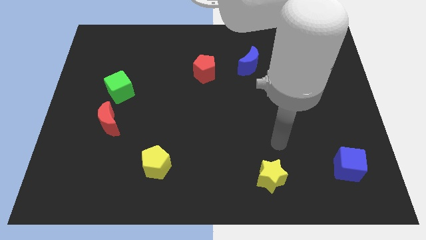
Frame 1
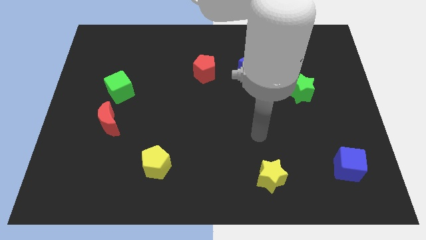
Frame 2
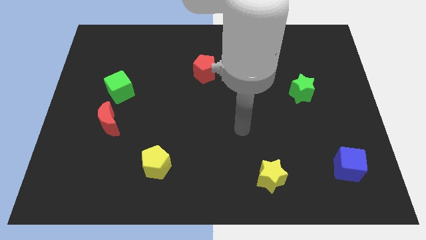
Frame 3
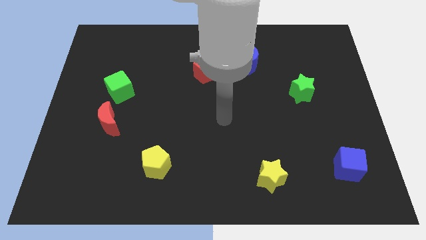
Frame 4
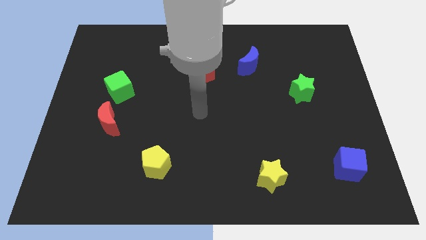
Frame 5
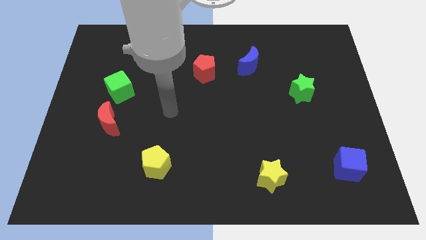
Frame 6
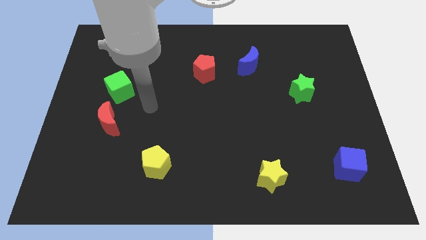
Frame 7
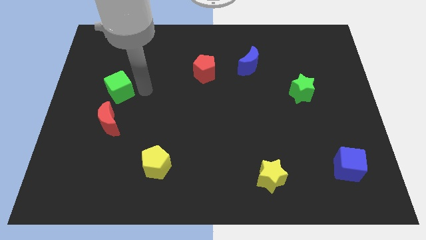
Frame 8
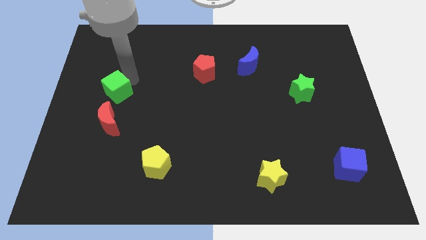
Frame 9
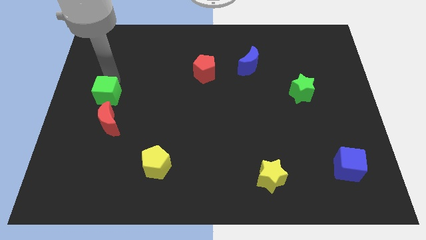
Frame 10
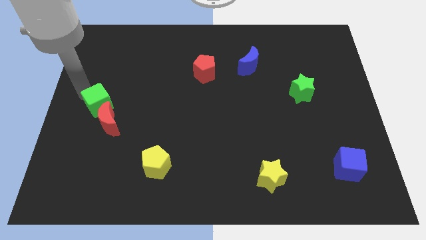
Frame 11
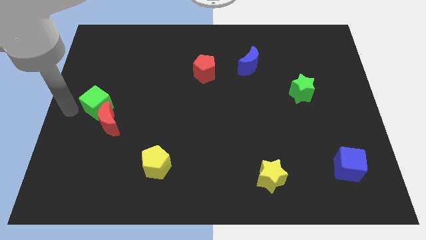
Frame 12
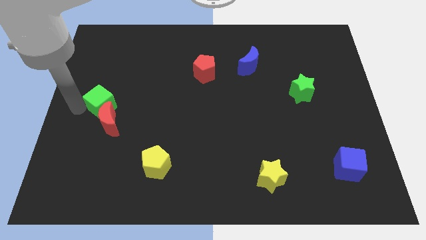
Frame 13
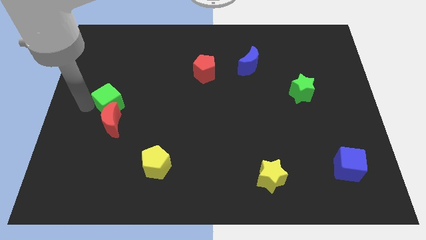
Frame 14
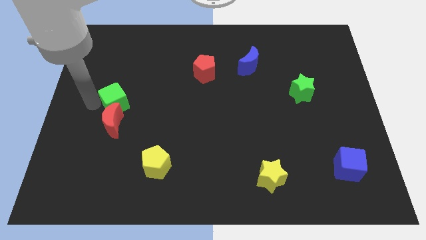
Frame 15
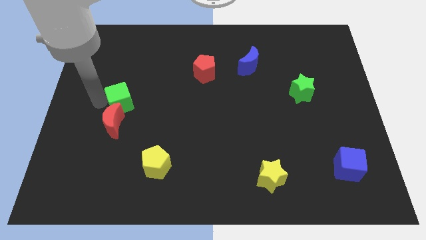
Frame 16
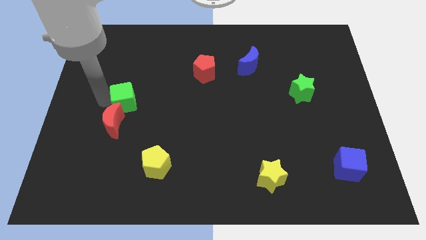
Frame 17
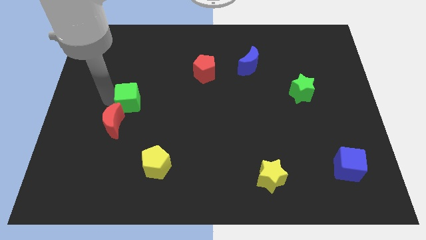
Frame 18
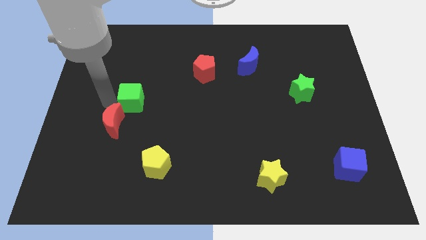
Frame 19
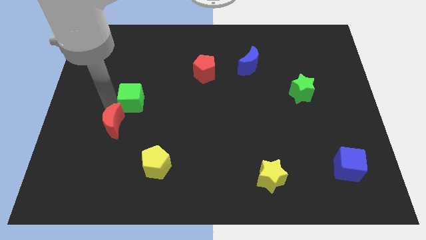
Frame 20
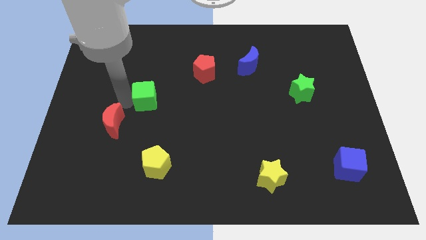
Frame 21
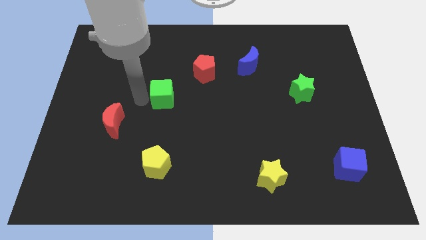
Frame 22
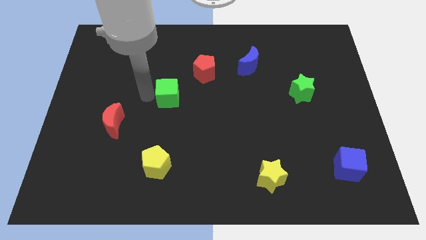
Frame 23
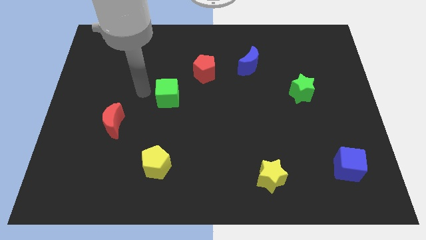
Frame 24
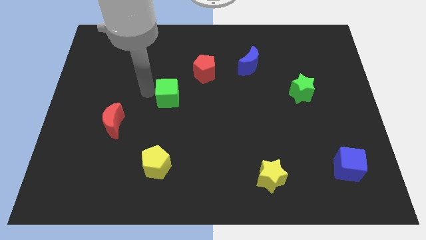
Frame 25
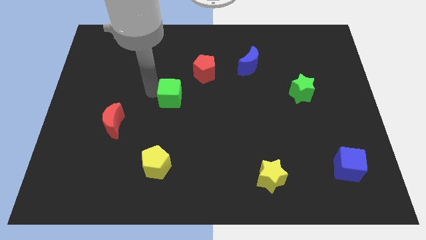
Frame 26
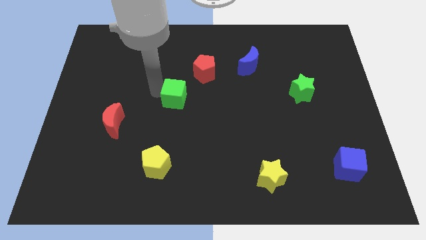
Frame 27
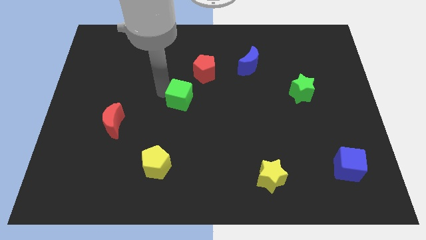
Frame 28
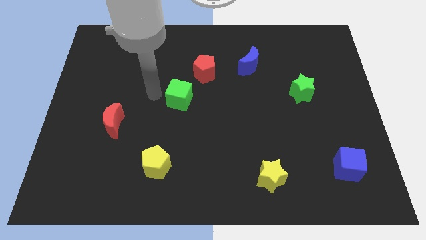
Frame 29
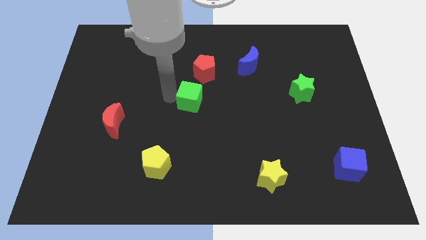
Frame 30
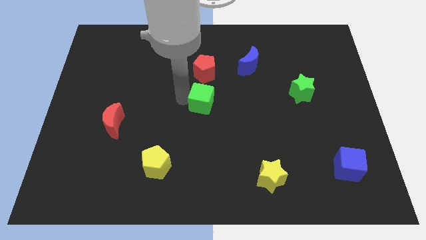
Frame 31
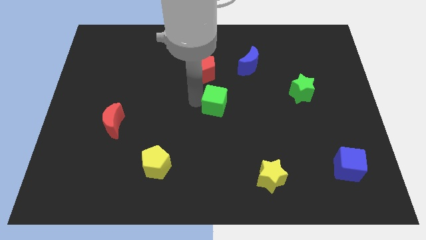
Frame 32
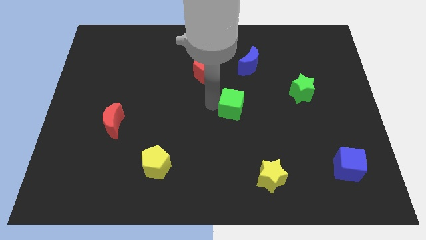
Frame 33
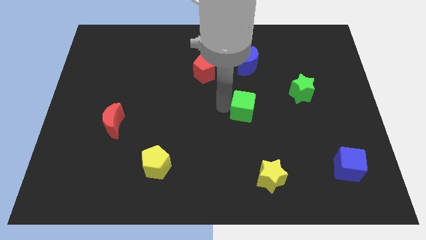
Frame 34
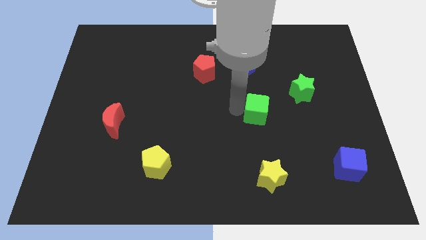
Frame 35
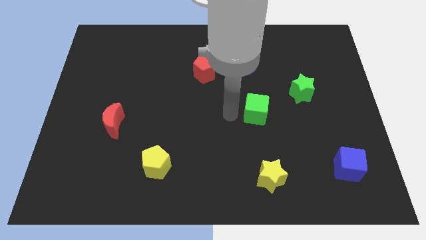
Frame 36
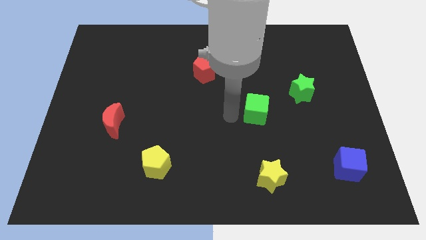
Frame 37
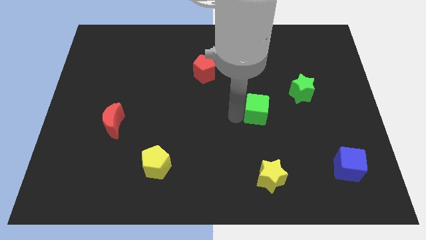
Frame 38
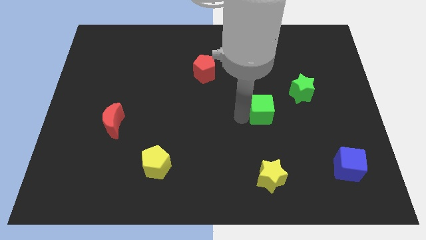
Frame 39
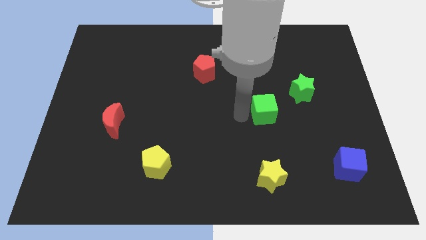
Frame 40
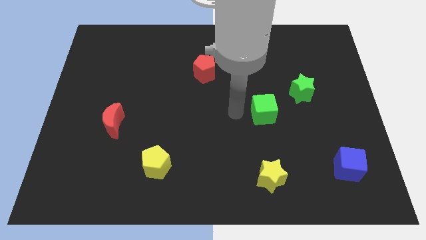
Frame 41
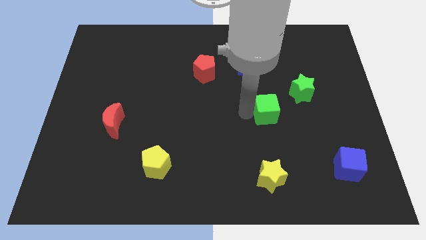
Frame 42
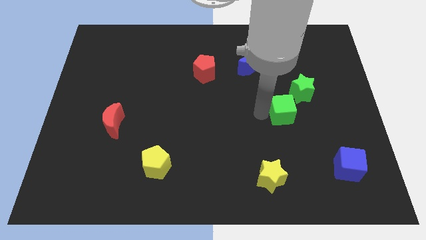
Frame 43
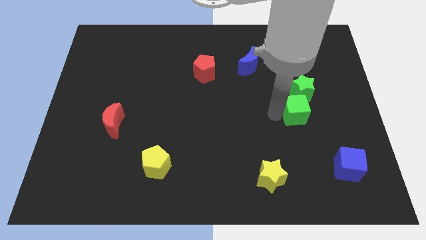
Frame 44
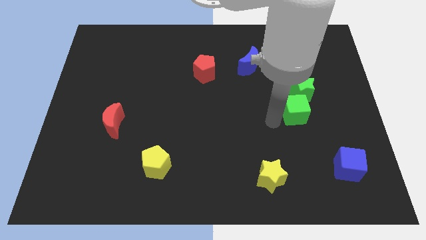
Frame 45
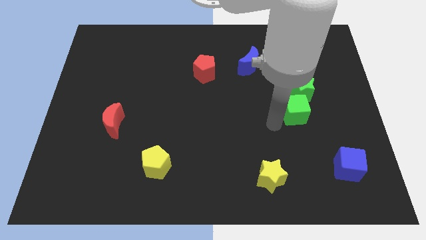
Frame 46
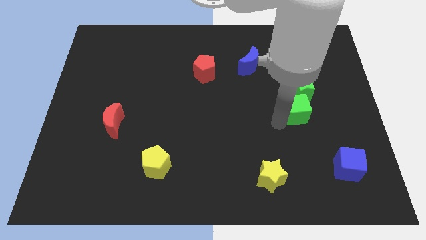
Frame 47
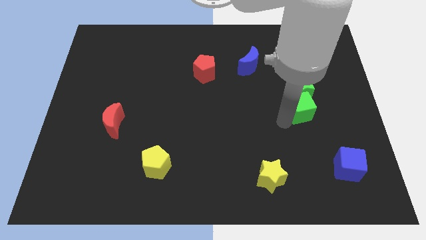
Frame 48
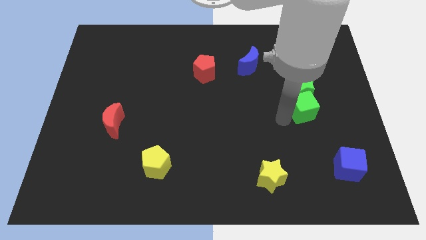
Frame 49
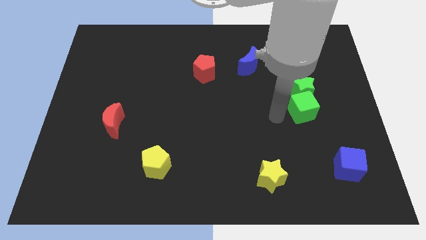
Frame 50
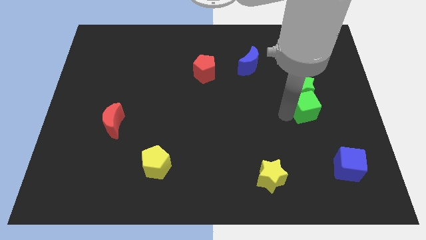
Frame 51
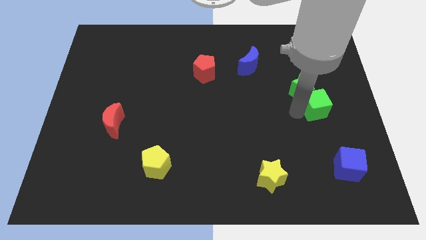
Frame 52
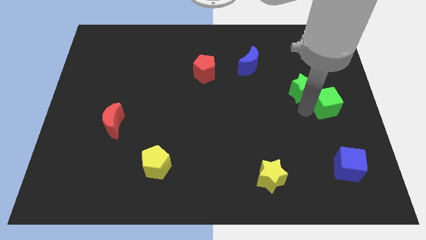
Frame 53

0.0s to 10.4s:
put the green cube to the right side of the board

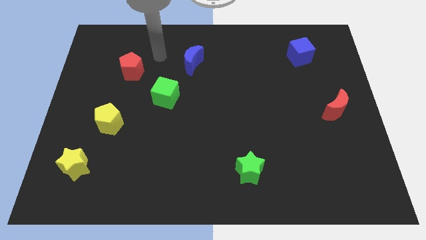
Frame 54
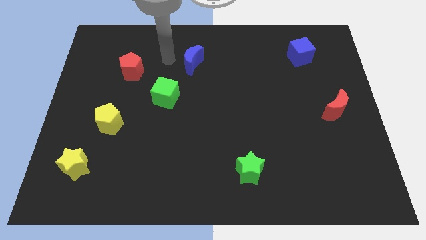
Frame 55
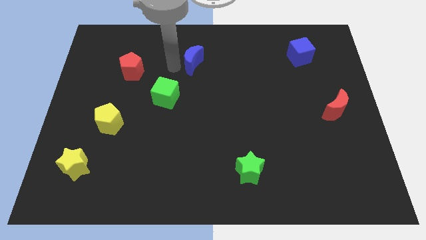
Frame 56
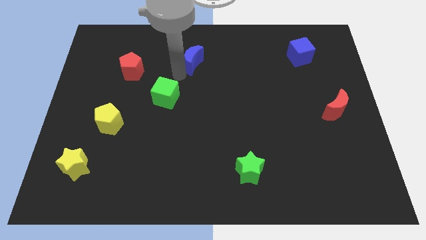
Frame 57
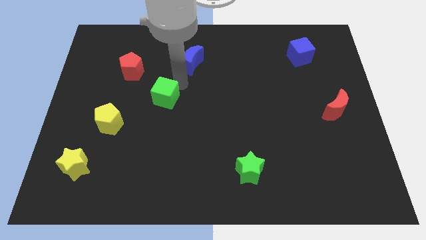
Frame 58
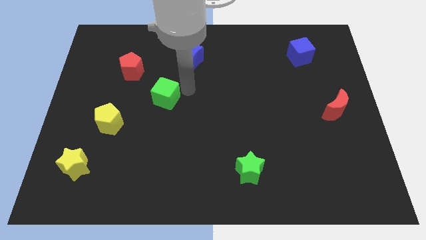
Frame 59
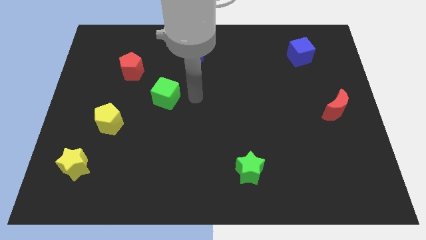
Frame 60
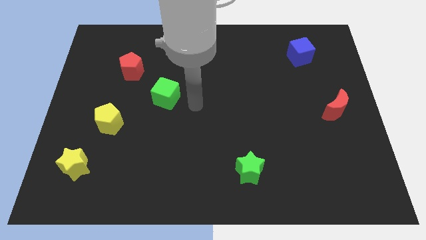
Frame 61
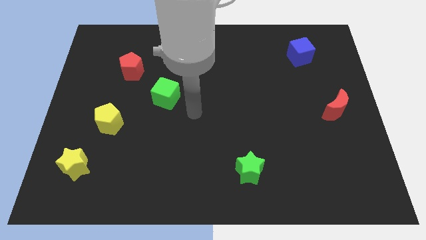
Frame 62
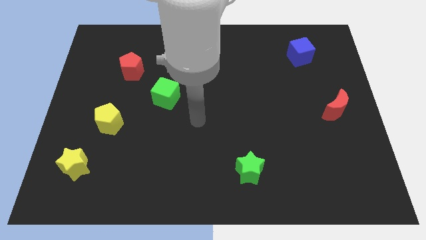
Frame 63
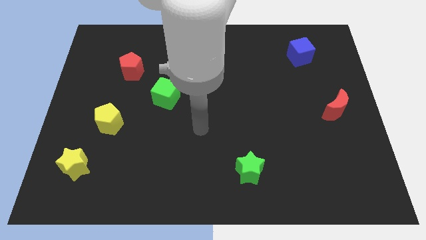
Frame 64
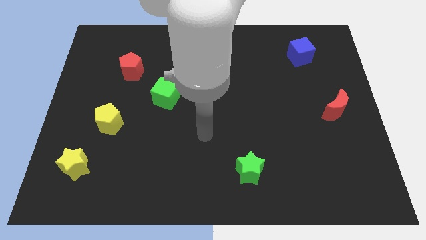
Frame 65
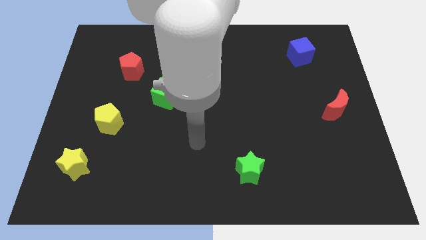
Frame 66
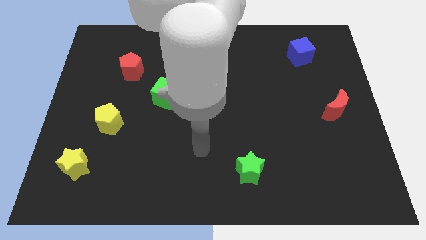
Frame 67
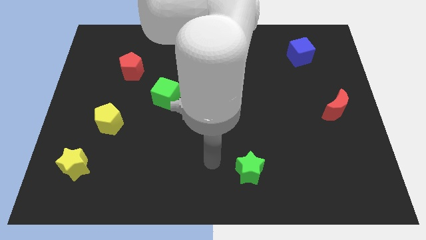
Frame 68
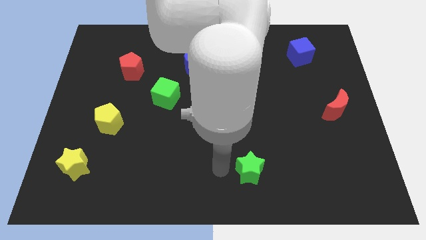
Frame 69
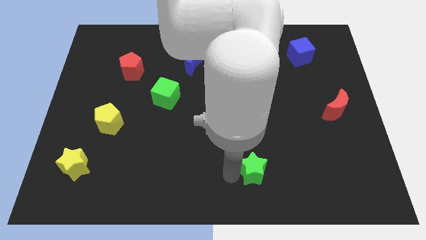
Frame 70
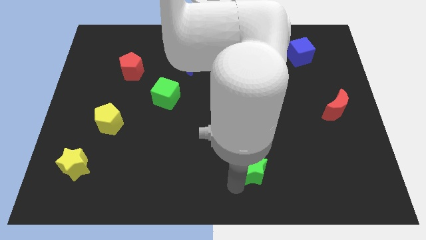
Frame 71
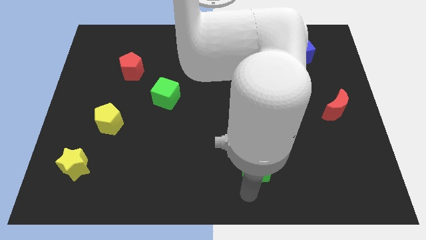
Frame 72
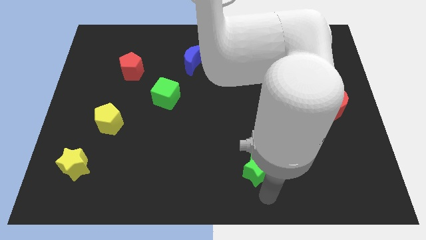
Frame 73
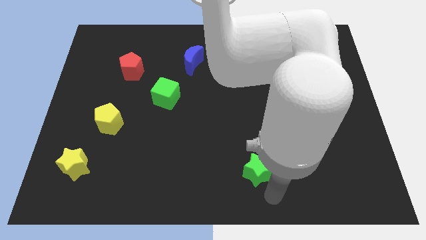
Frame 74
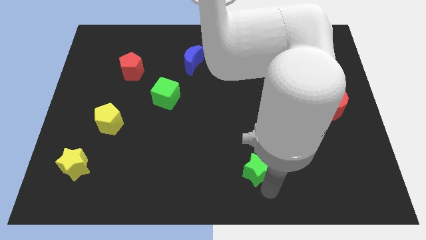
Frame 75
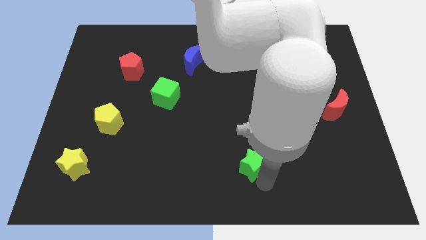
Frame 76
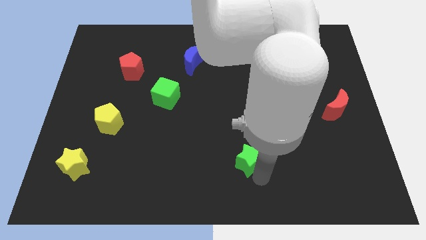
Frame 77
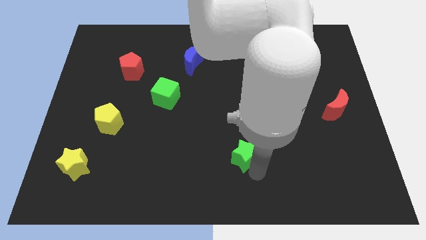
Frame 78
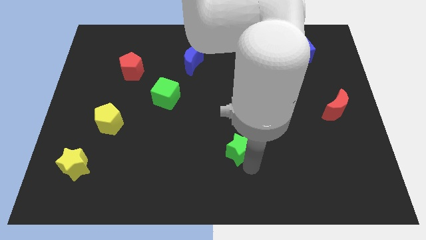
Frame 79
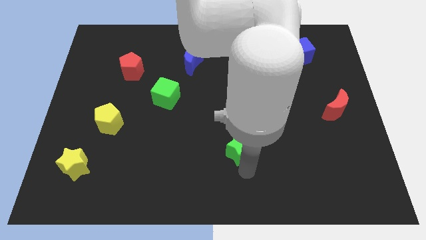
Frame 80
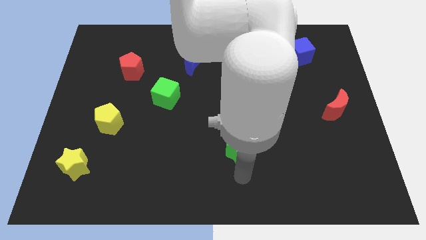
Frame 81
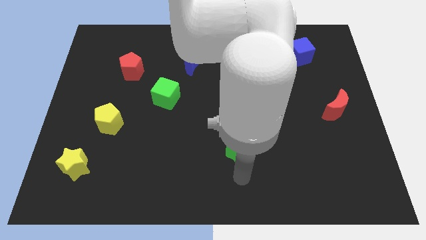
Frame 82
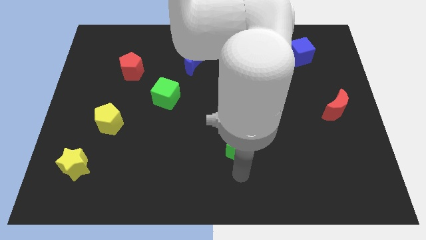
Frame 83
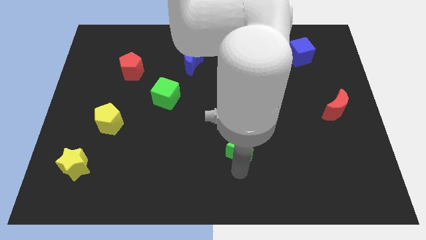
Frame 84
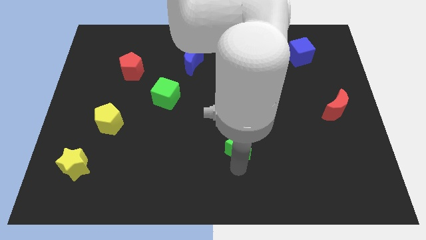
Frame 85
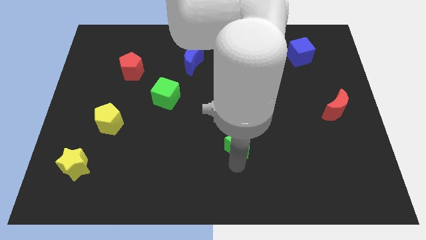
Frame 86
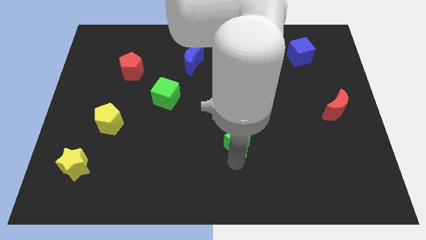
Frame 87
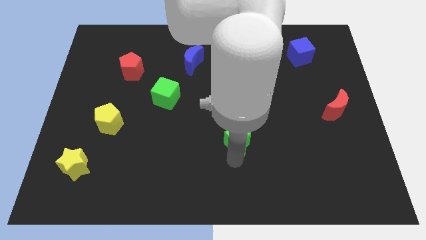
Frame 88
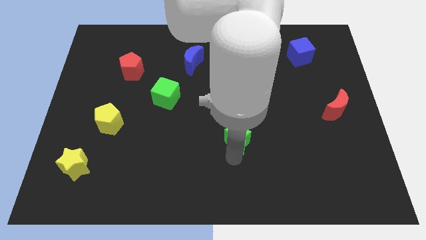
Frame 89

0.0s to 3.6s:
push the green star to the middle of the board
